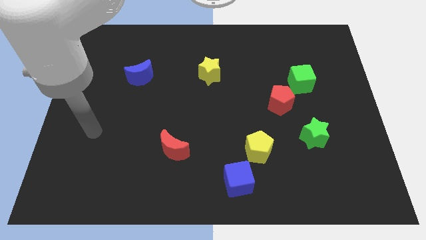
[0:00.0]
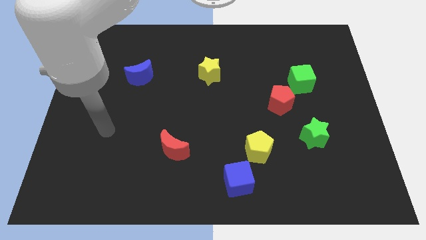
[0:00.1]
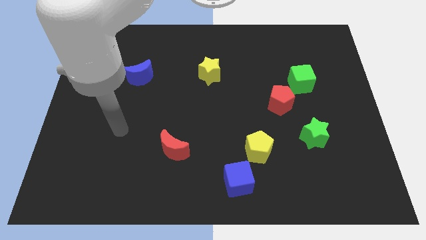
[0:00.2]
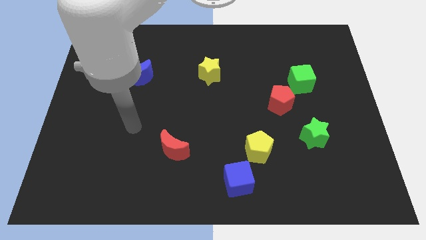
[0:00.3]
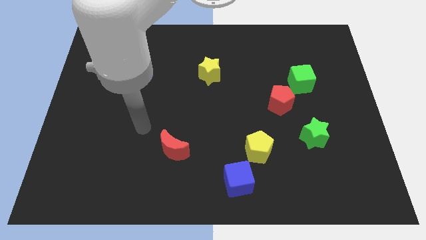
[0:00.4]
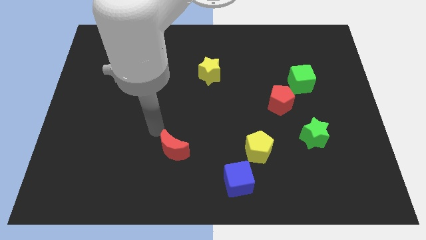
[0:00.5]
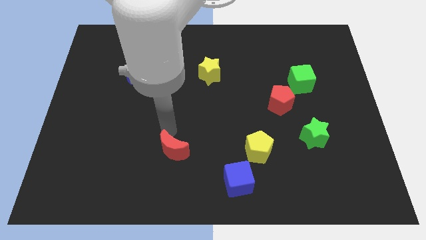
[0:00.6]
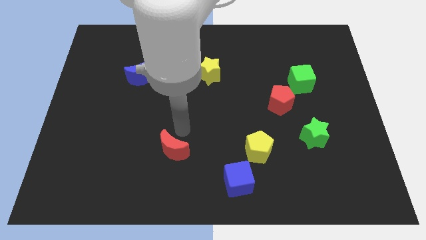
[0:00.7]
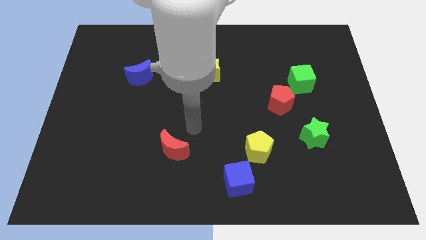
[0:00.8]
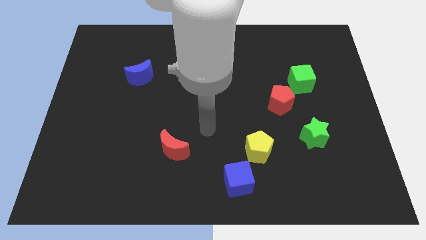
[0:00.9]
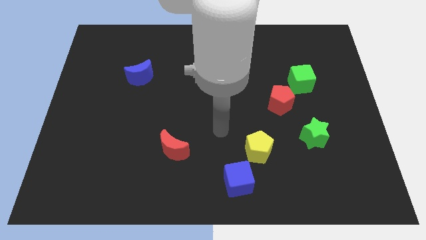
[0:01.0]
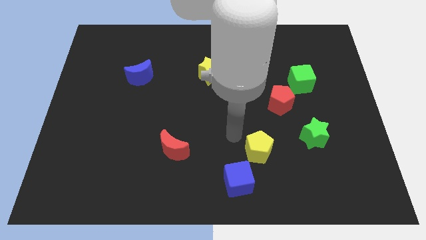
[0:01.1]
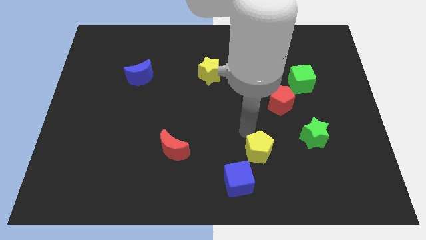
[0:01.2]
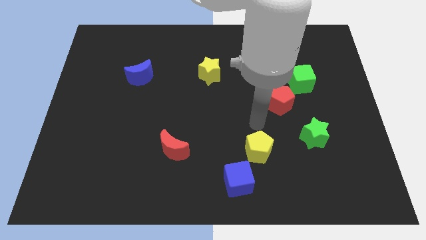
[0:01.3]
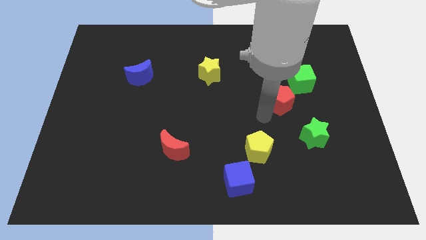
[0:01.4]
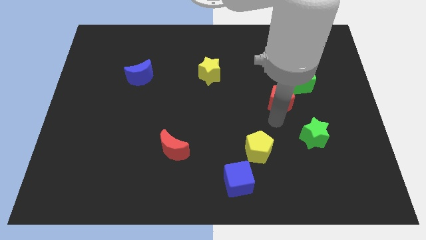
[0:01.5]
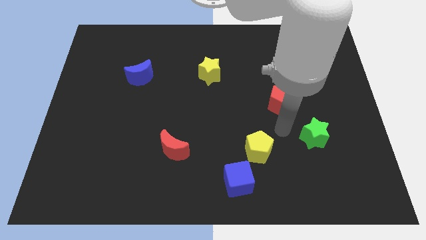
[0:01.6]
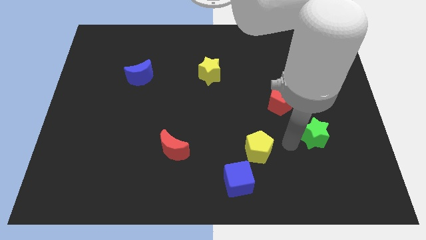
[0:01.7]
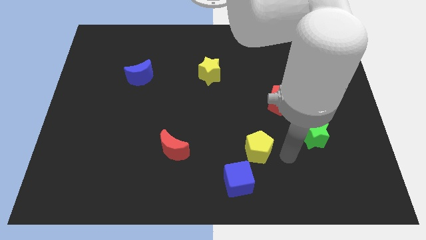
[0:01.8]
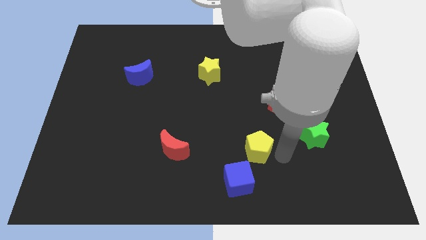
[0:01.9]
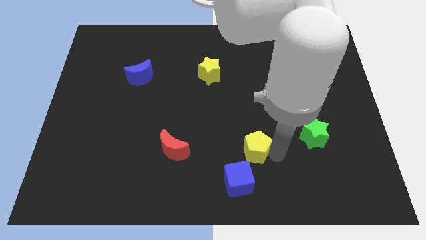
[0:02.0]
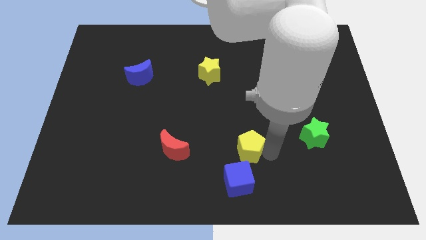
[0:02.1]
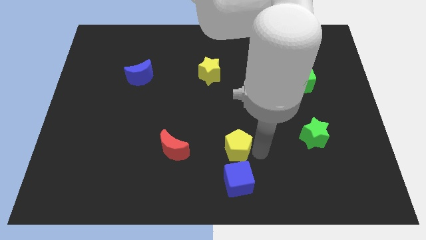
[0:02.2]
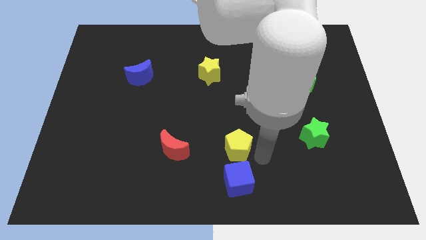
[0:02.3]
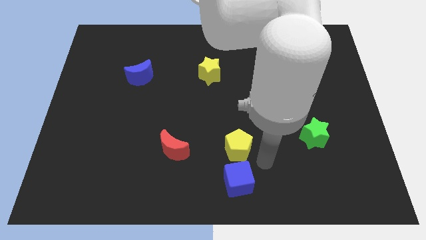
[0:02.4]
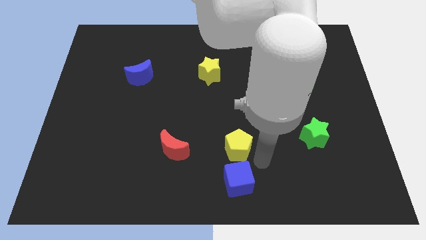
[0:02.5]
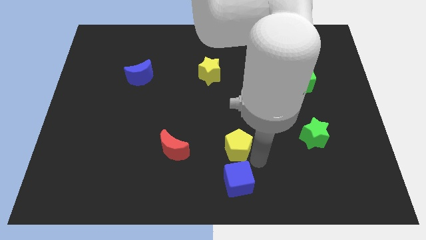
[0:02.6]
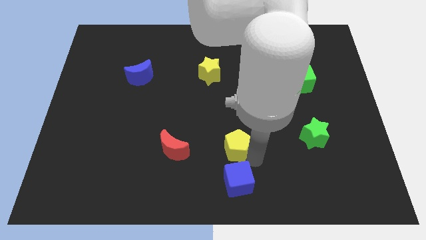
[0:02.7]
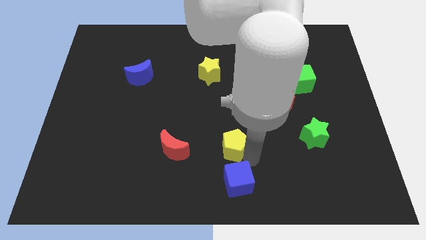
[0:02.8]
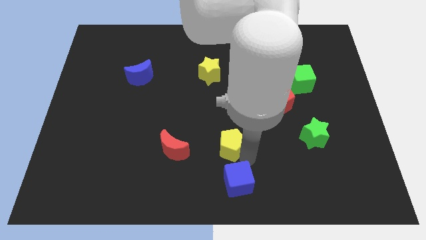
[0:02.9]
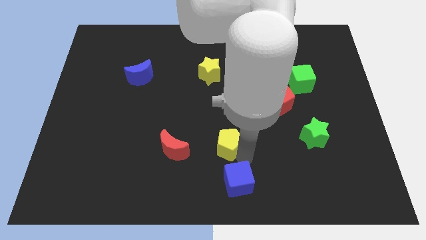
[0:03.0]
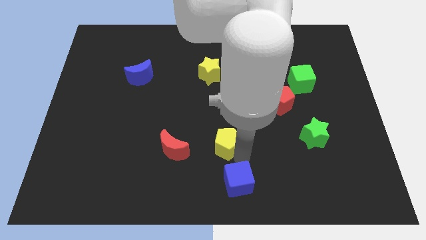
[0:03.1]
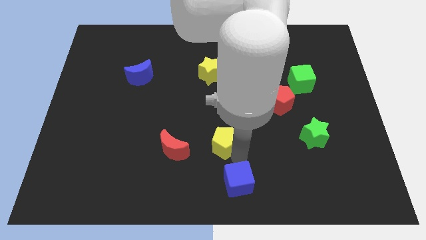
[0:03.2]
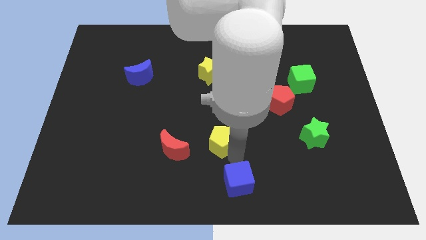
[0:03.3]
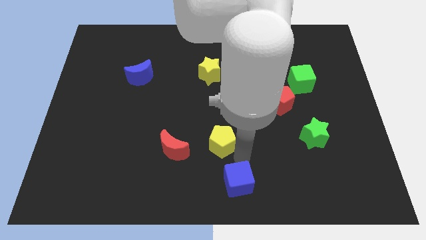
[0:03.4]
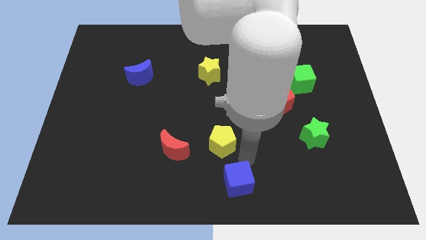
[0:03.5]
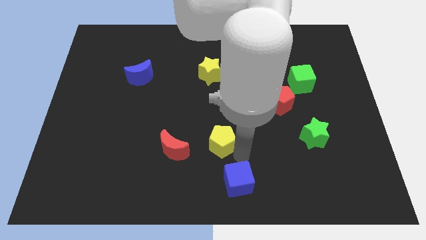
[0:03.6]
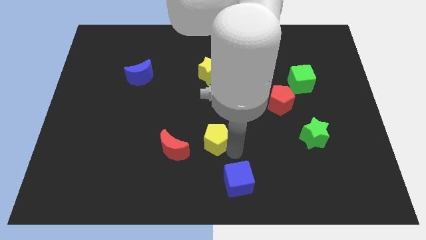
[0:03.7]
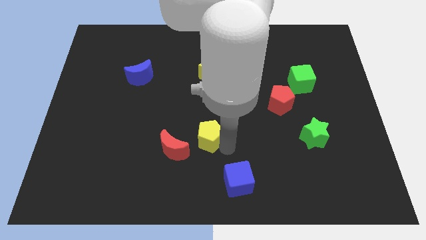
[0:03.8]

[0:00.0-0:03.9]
put the yellow pentagon to the top right side of the red moon

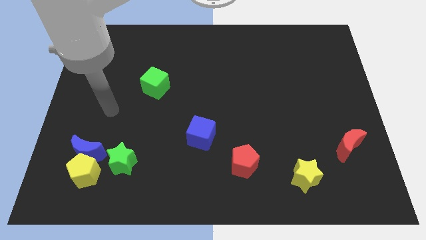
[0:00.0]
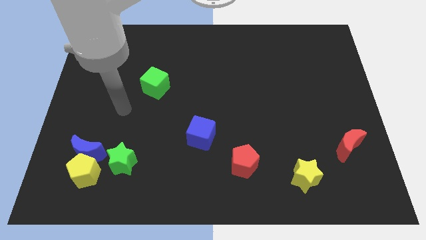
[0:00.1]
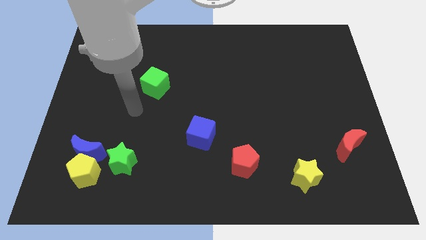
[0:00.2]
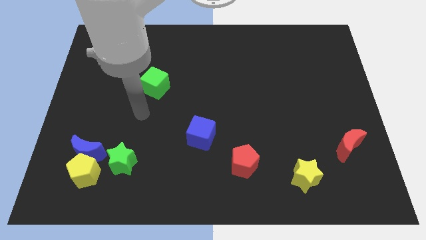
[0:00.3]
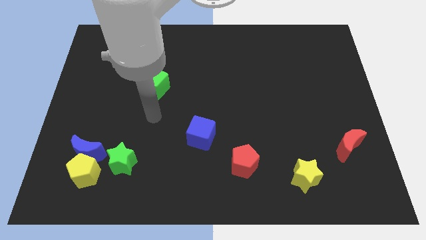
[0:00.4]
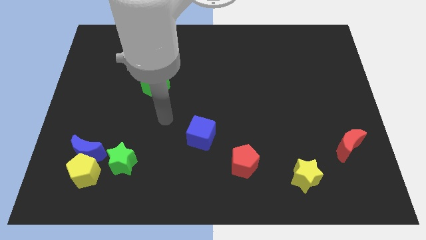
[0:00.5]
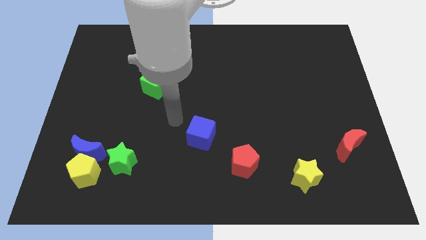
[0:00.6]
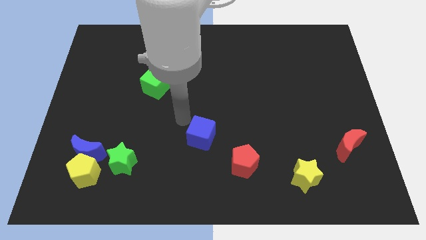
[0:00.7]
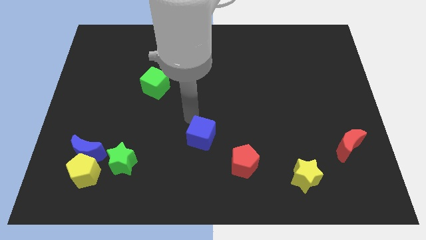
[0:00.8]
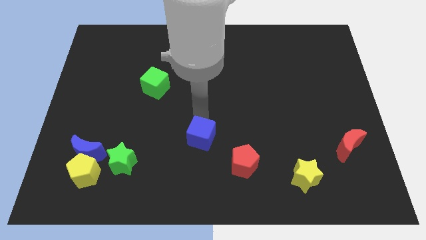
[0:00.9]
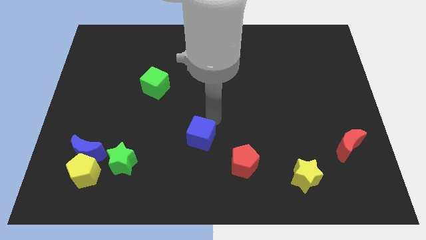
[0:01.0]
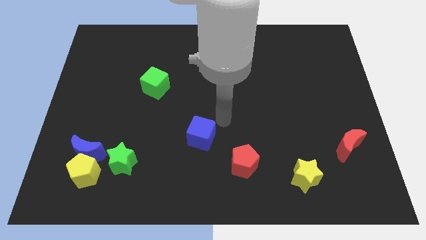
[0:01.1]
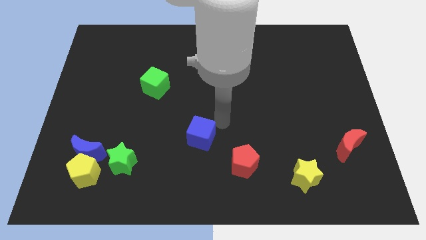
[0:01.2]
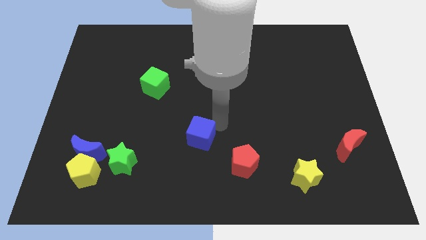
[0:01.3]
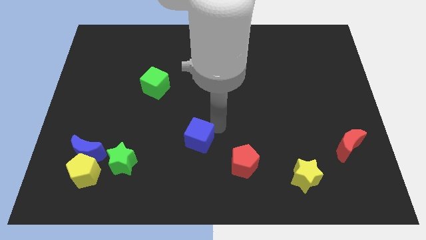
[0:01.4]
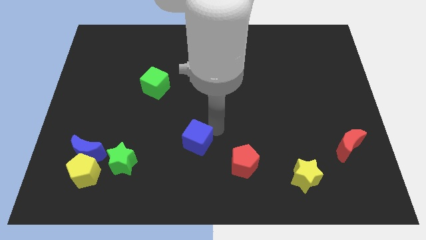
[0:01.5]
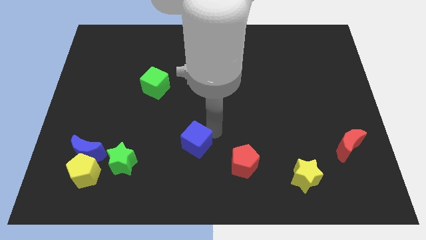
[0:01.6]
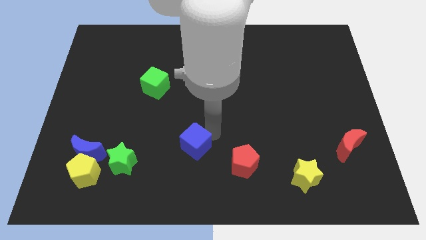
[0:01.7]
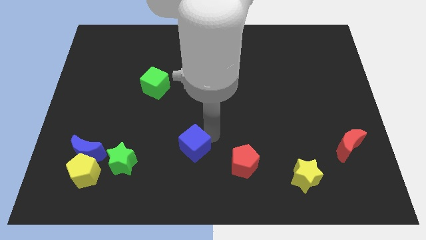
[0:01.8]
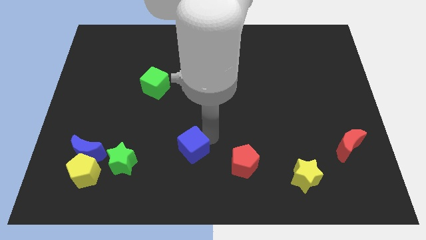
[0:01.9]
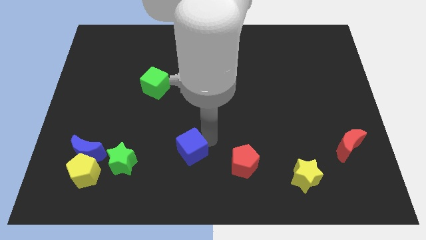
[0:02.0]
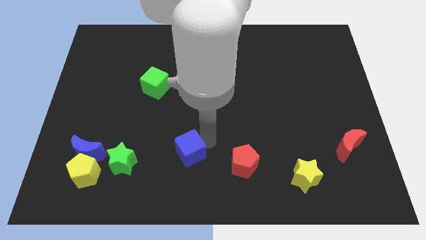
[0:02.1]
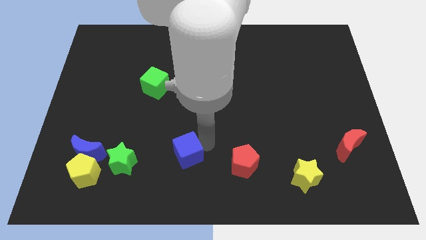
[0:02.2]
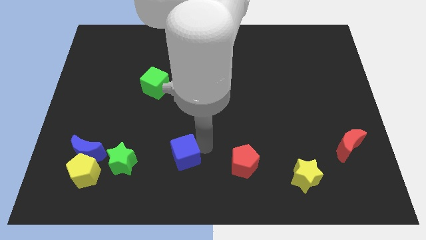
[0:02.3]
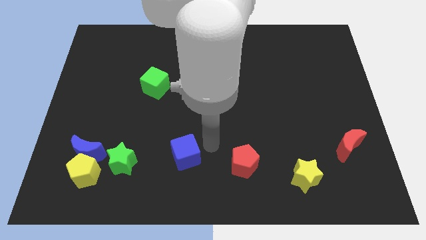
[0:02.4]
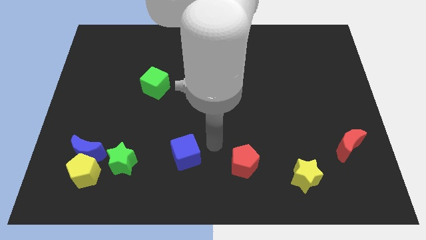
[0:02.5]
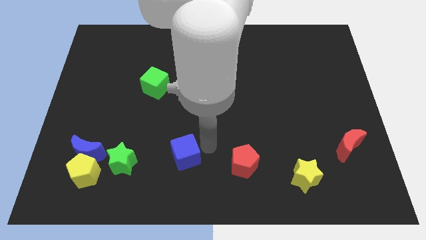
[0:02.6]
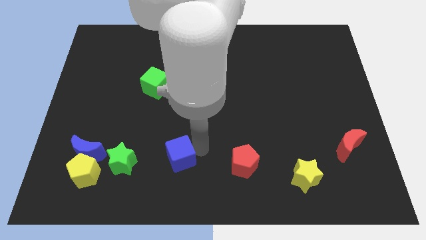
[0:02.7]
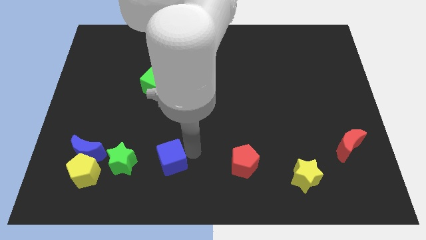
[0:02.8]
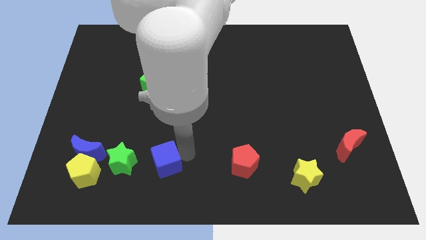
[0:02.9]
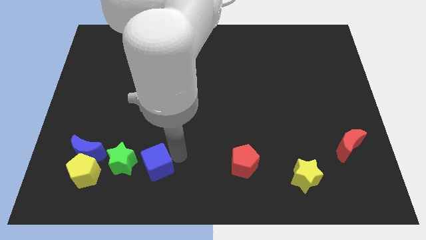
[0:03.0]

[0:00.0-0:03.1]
slide the blue cube to the bottom right of the green star
